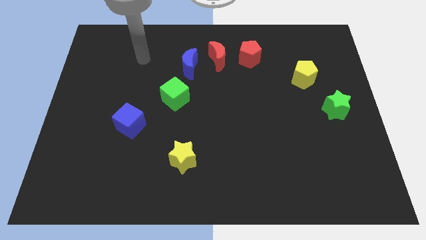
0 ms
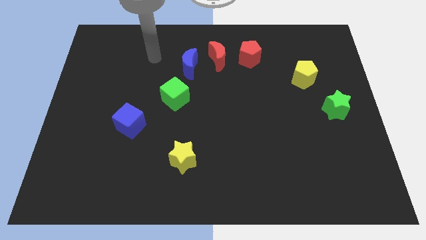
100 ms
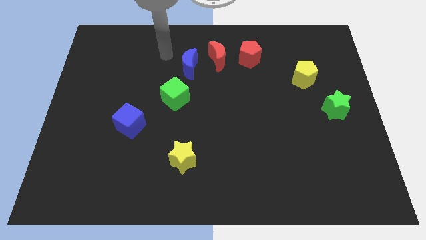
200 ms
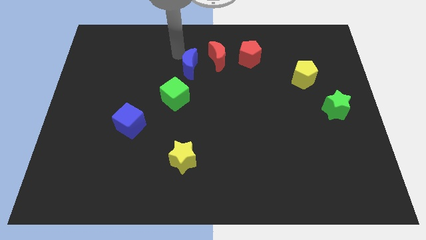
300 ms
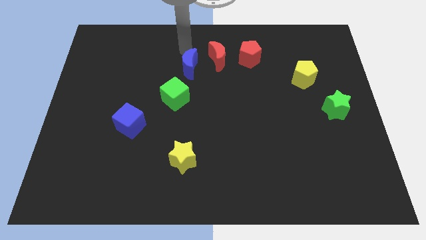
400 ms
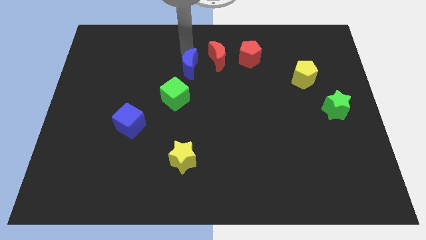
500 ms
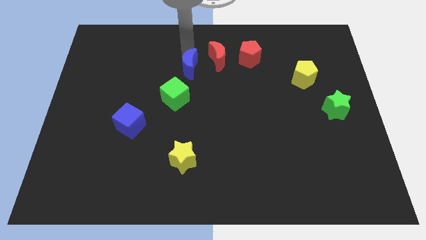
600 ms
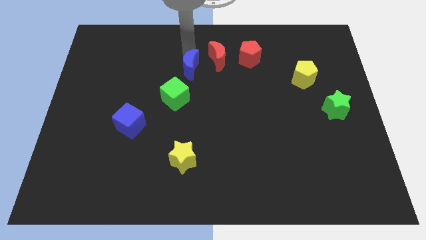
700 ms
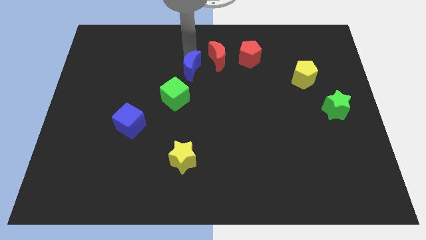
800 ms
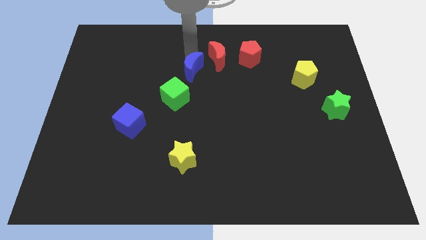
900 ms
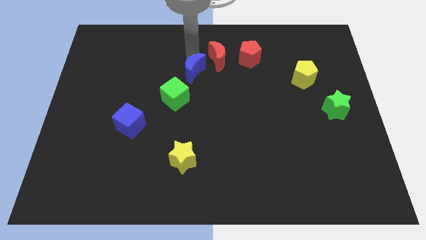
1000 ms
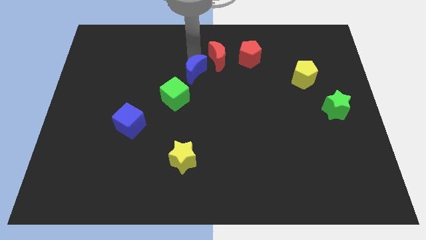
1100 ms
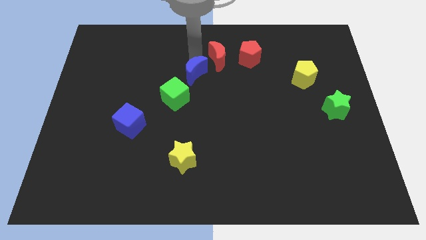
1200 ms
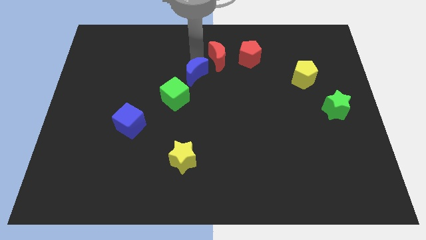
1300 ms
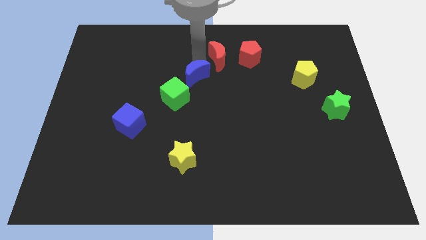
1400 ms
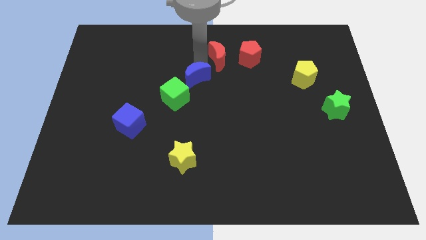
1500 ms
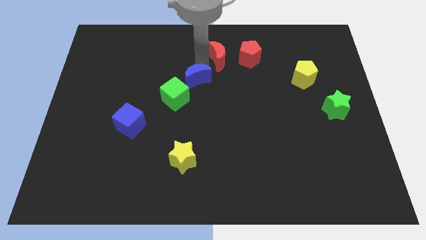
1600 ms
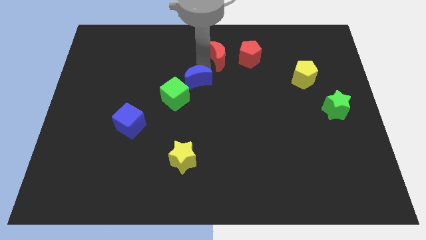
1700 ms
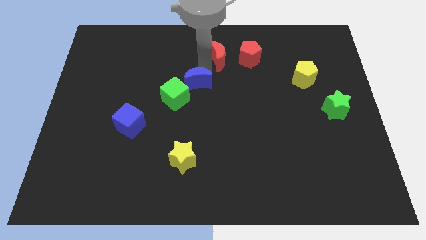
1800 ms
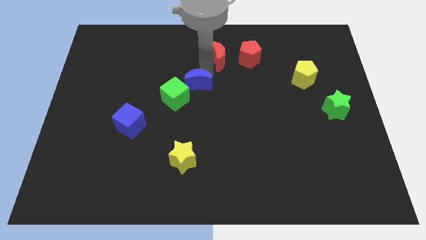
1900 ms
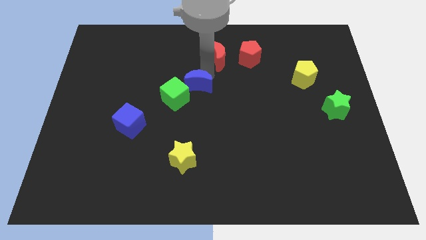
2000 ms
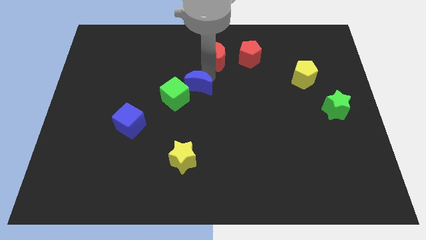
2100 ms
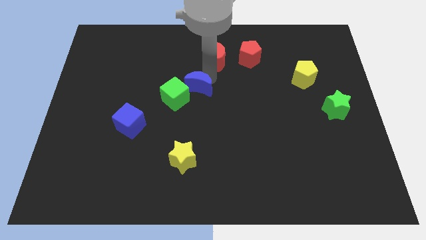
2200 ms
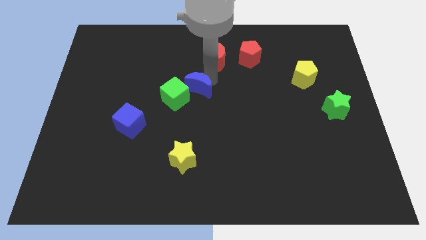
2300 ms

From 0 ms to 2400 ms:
move the blue moon downwards a bit

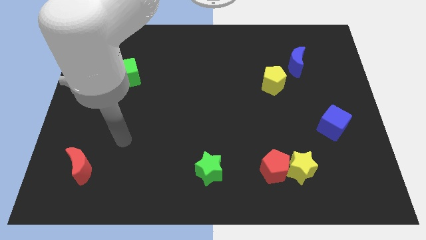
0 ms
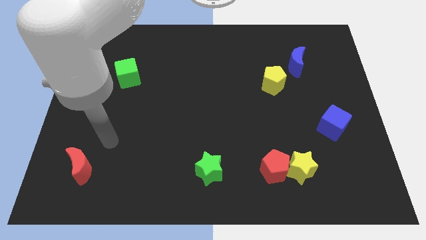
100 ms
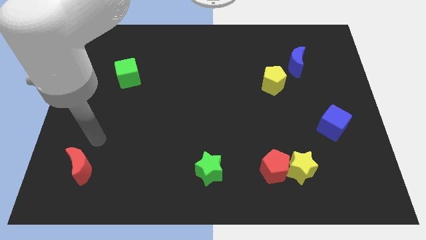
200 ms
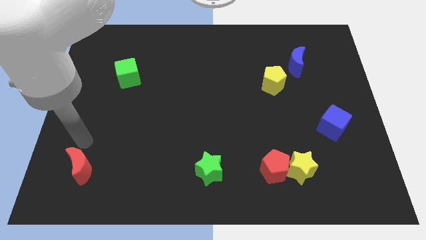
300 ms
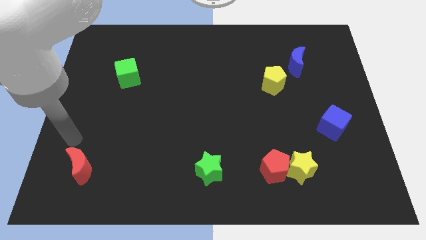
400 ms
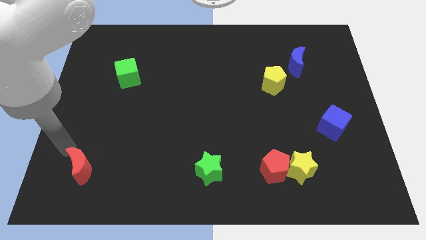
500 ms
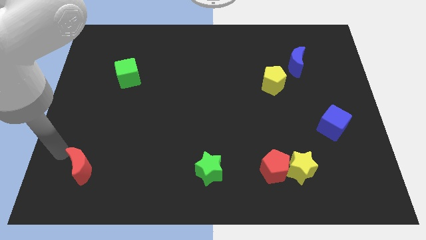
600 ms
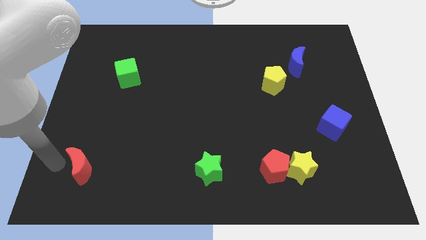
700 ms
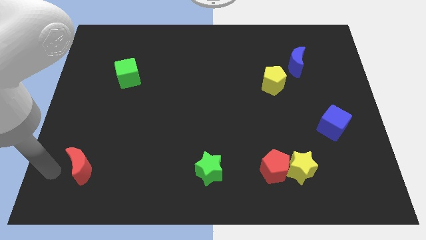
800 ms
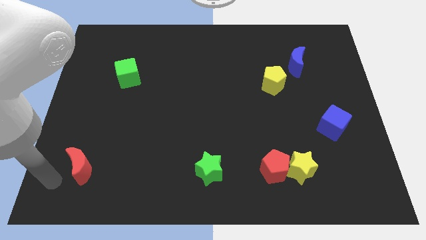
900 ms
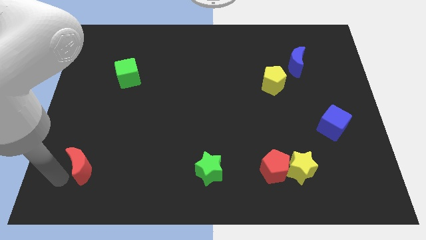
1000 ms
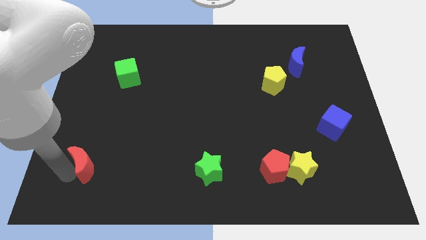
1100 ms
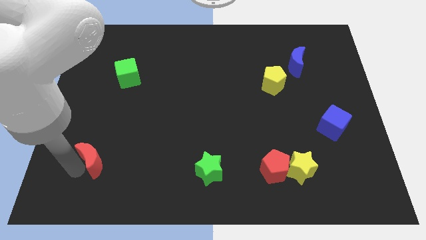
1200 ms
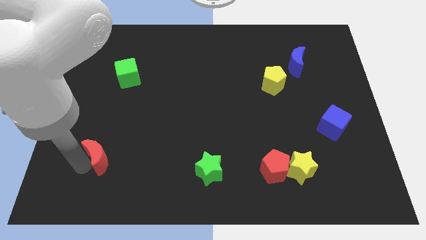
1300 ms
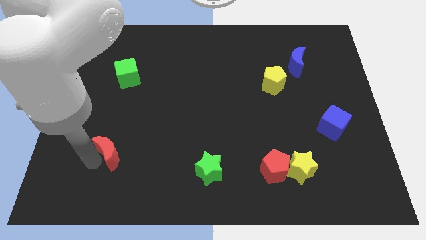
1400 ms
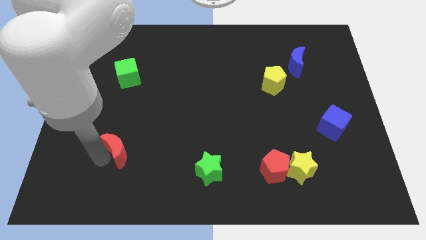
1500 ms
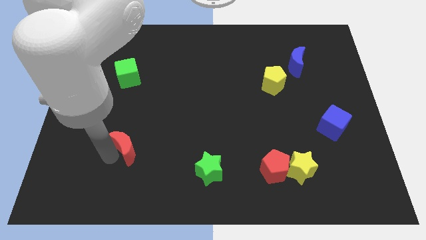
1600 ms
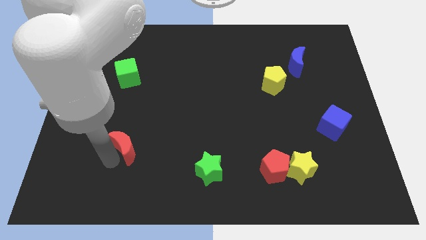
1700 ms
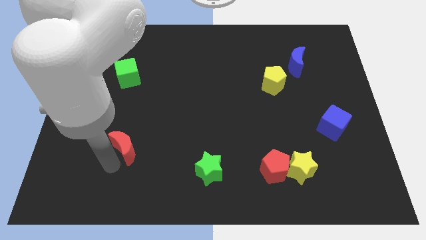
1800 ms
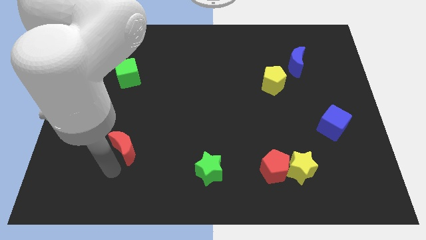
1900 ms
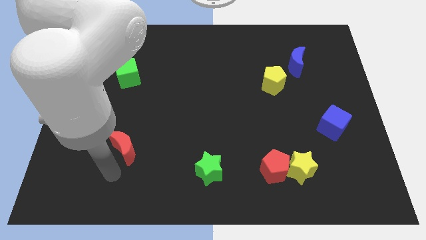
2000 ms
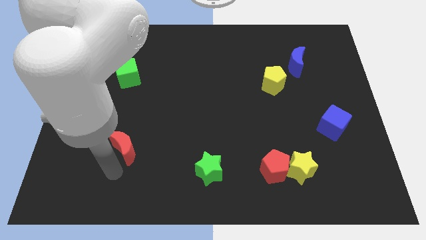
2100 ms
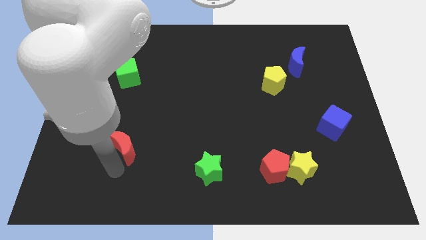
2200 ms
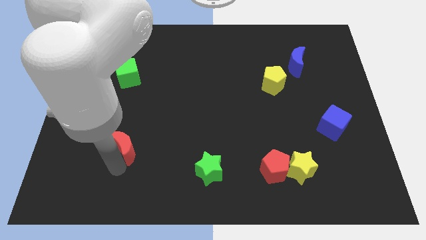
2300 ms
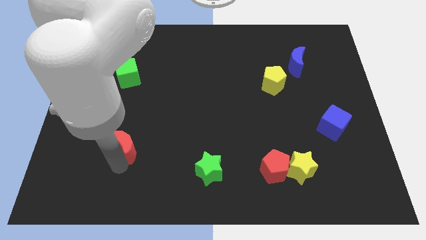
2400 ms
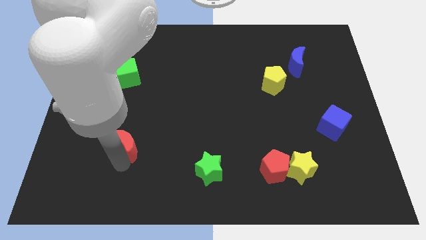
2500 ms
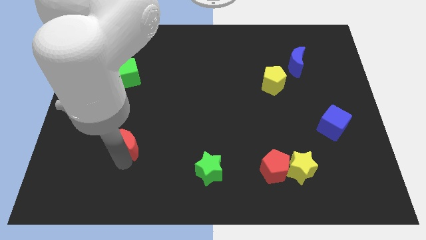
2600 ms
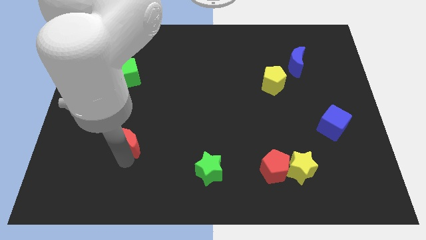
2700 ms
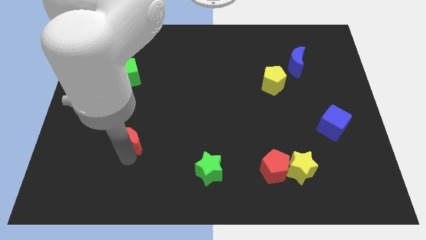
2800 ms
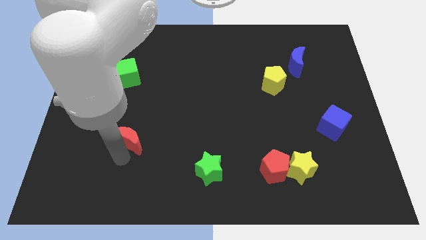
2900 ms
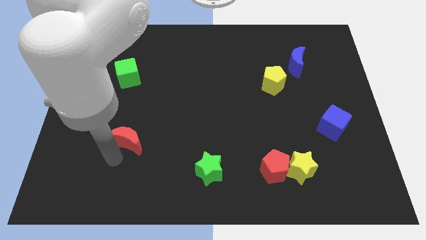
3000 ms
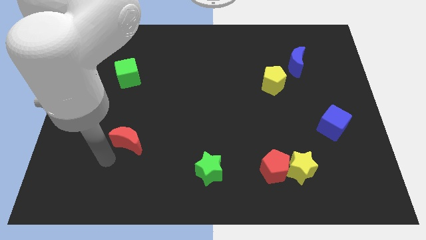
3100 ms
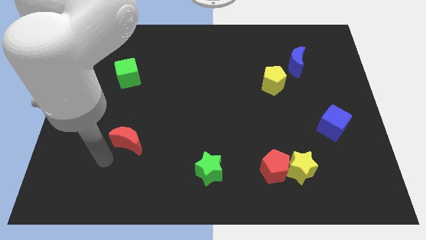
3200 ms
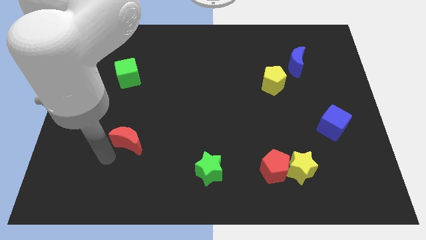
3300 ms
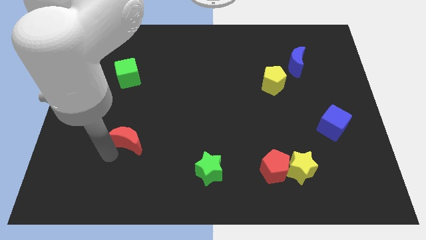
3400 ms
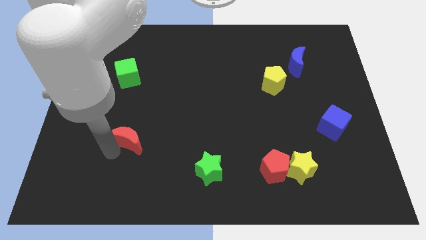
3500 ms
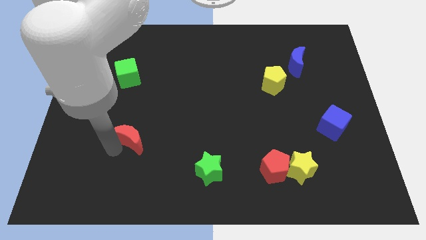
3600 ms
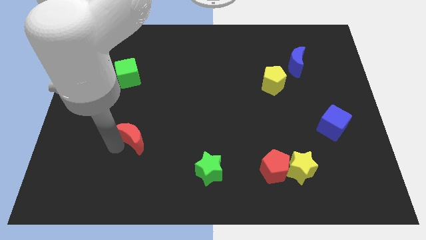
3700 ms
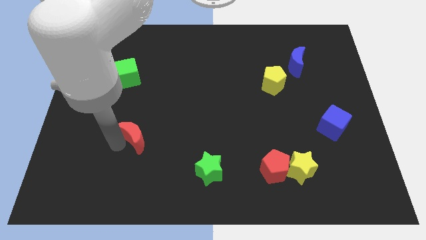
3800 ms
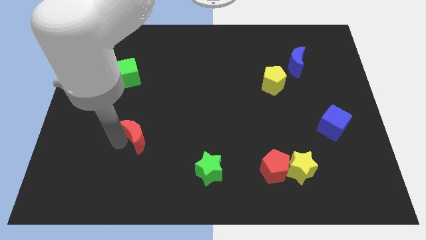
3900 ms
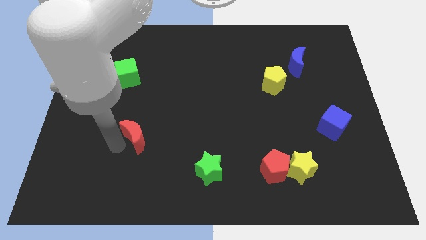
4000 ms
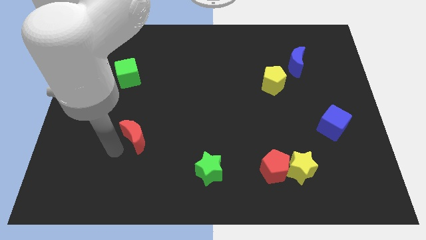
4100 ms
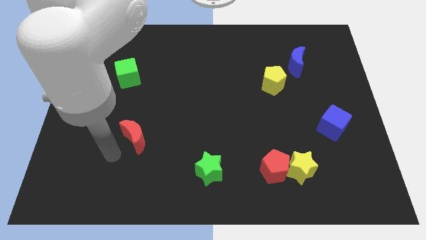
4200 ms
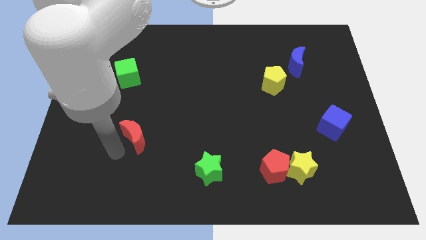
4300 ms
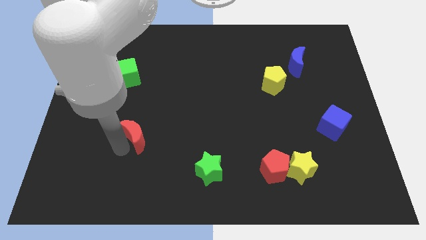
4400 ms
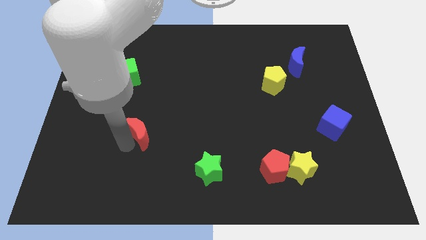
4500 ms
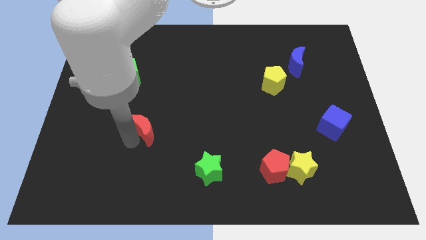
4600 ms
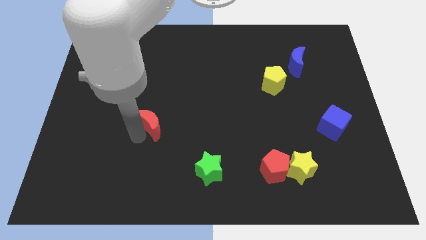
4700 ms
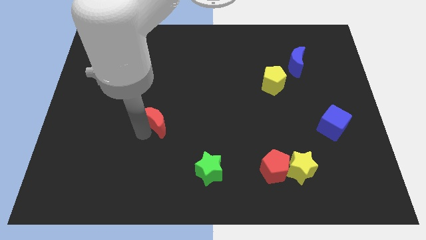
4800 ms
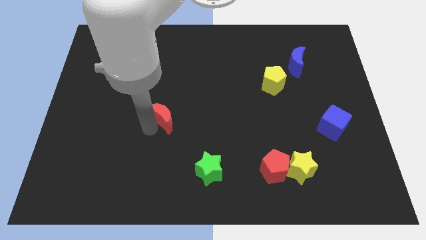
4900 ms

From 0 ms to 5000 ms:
push the red moon up and then to the right

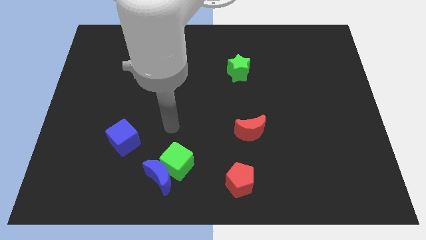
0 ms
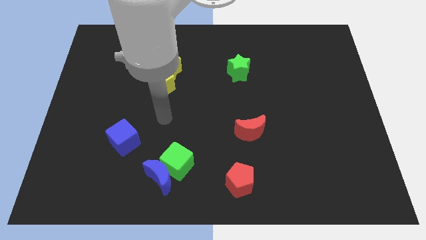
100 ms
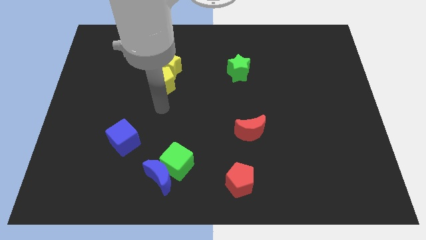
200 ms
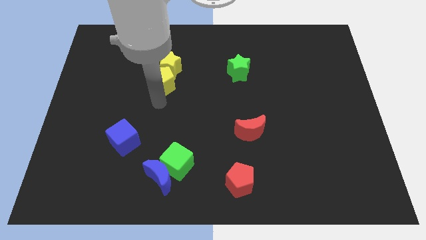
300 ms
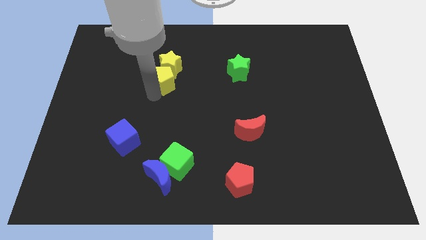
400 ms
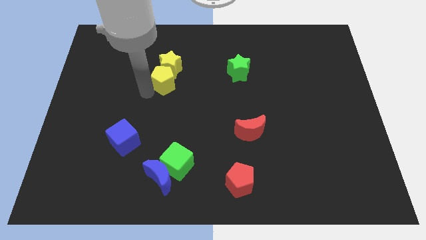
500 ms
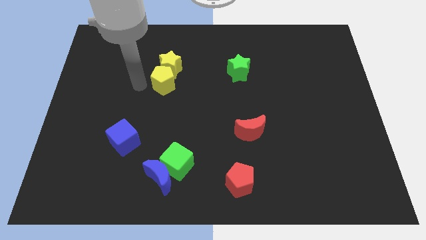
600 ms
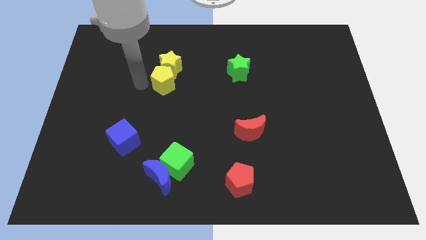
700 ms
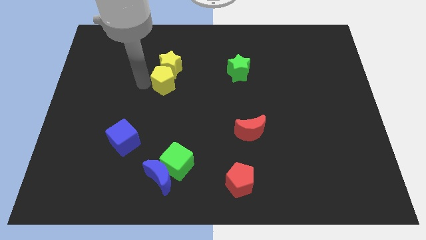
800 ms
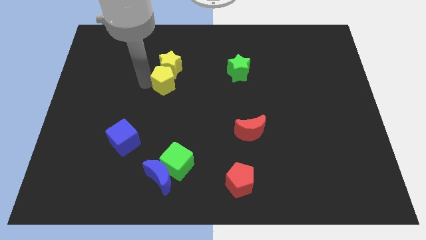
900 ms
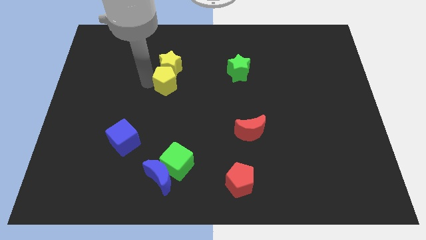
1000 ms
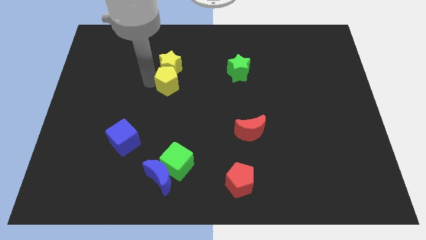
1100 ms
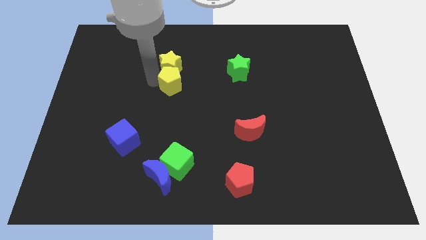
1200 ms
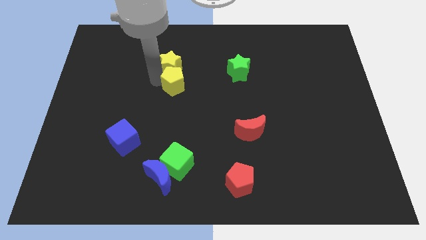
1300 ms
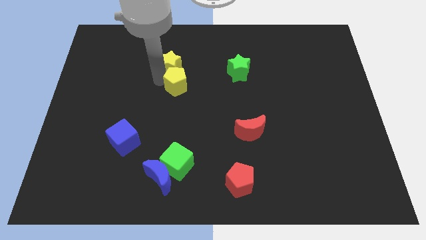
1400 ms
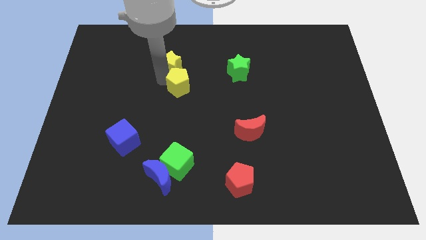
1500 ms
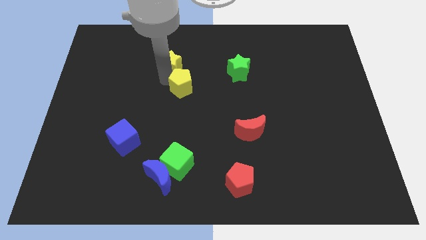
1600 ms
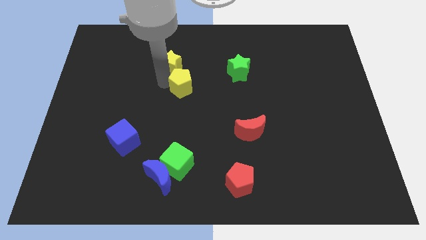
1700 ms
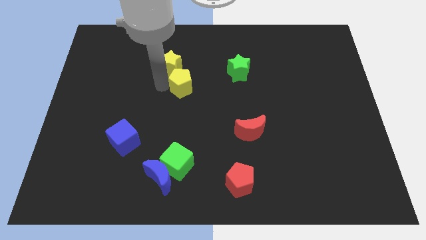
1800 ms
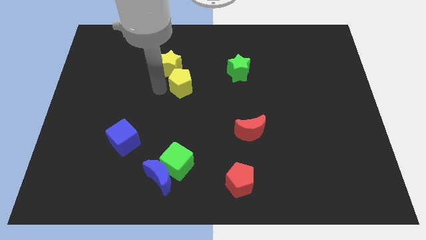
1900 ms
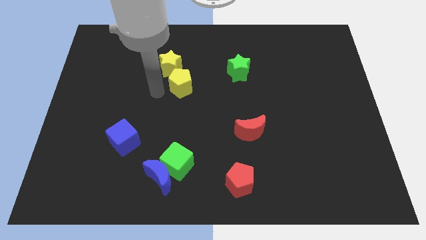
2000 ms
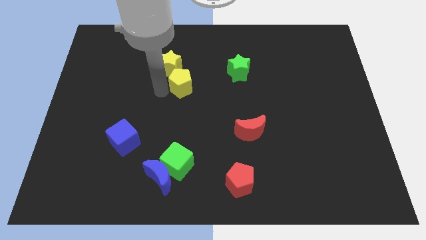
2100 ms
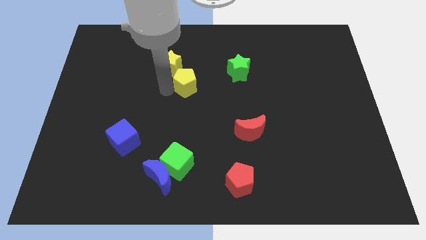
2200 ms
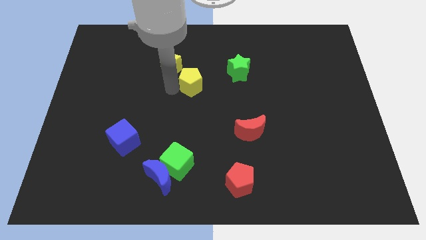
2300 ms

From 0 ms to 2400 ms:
move the yellow pentagon right a bit
